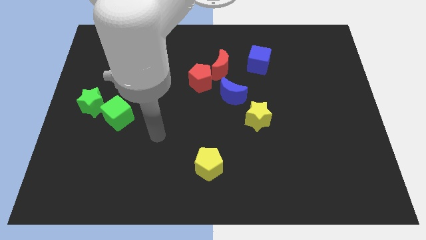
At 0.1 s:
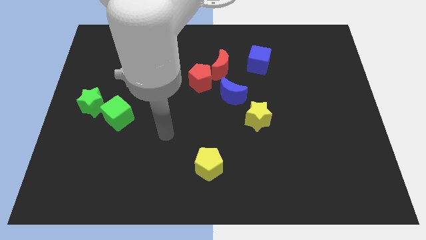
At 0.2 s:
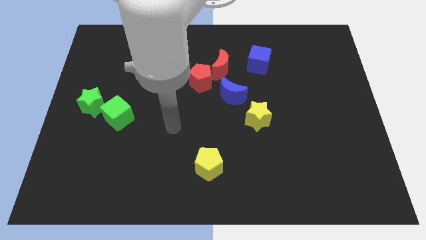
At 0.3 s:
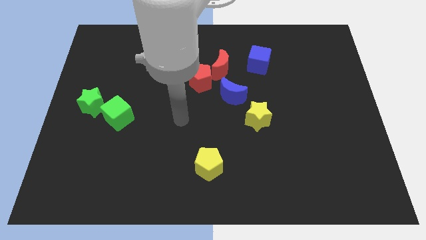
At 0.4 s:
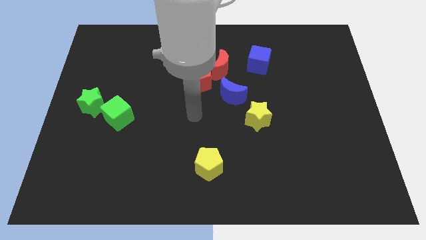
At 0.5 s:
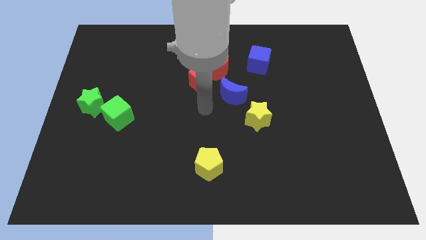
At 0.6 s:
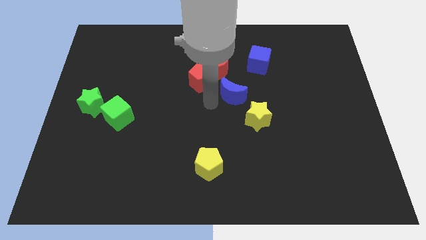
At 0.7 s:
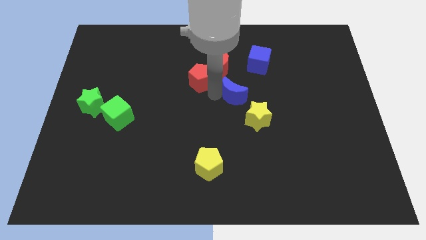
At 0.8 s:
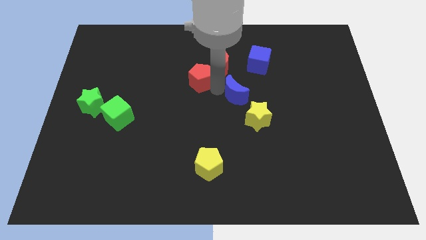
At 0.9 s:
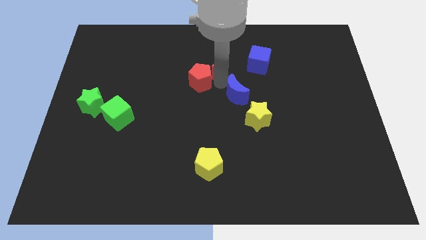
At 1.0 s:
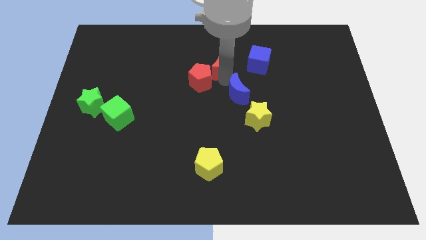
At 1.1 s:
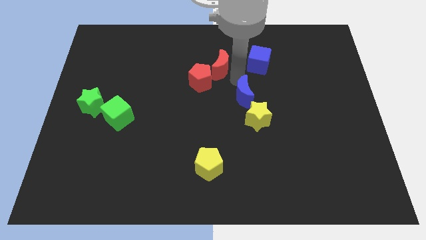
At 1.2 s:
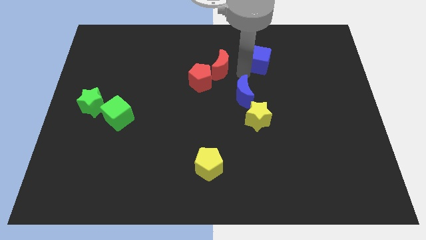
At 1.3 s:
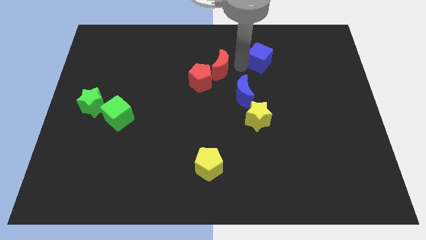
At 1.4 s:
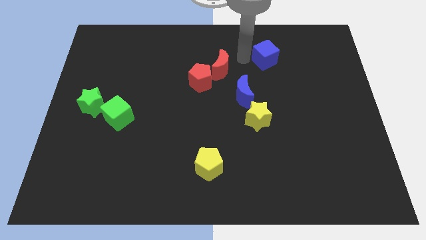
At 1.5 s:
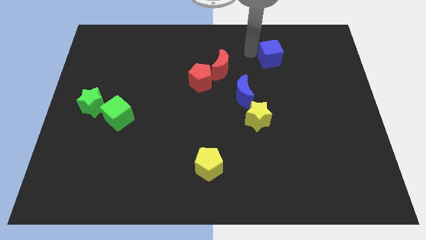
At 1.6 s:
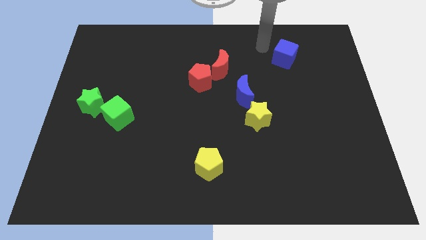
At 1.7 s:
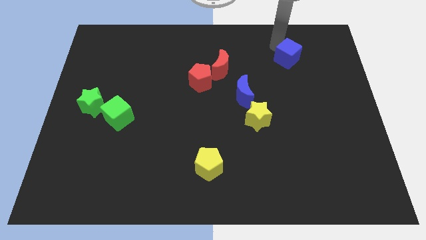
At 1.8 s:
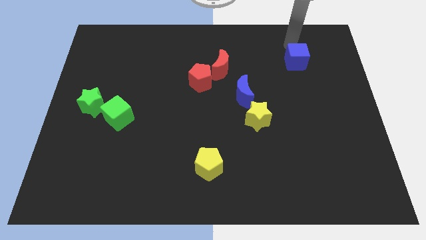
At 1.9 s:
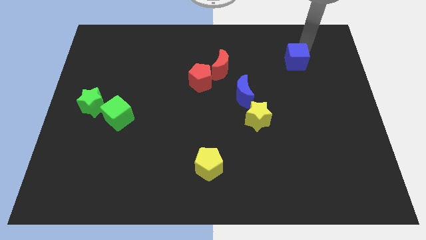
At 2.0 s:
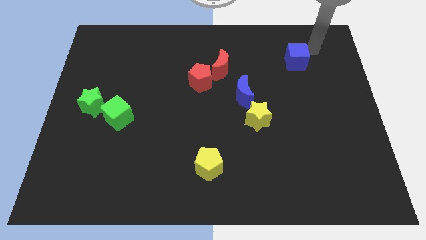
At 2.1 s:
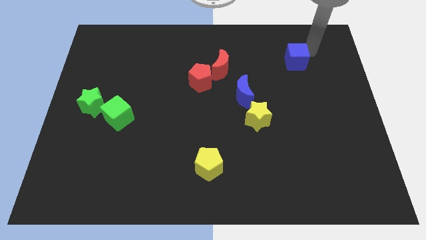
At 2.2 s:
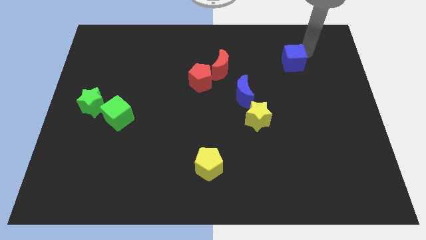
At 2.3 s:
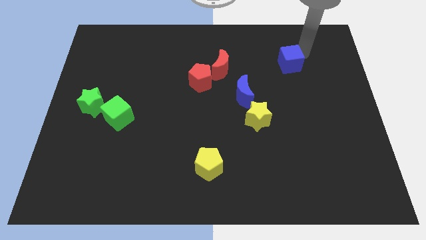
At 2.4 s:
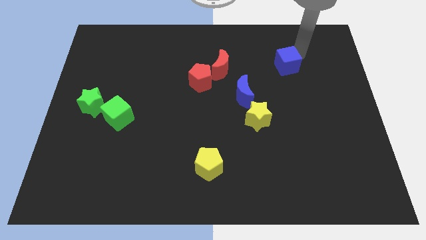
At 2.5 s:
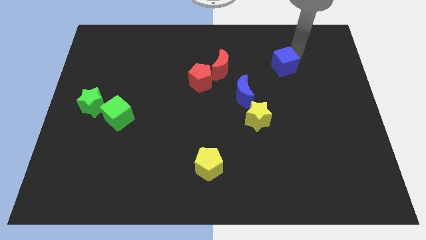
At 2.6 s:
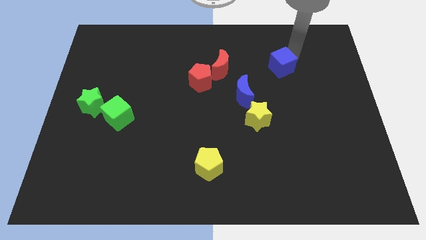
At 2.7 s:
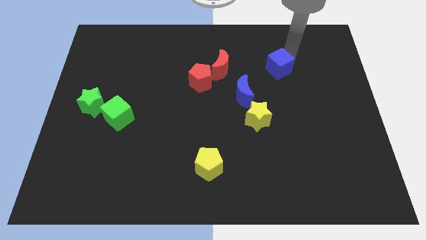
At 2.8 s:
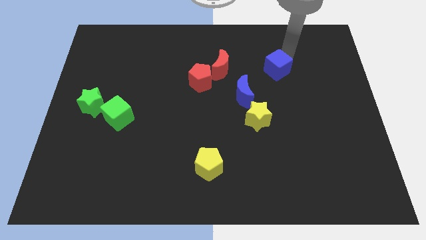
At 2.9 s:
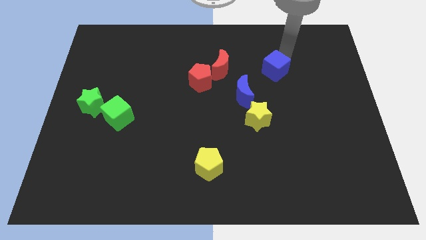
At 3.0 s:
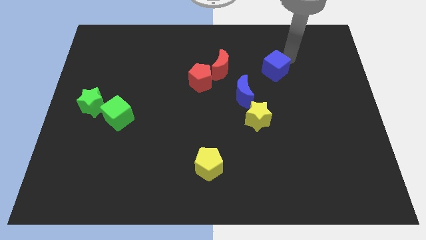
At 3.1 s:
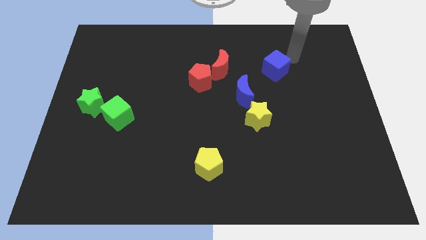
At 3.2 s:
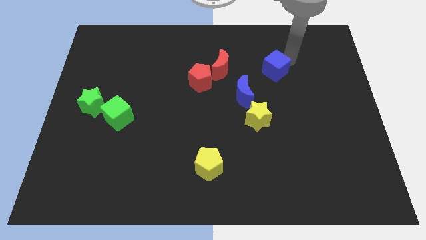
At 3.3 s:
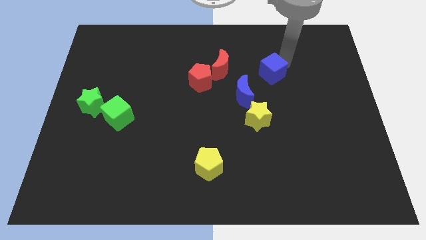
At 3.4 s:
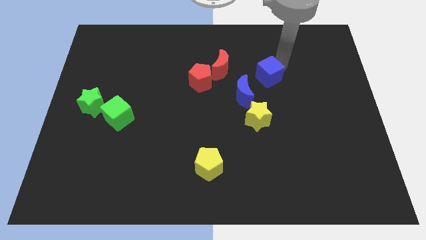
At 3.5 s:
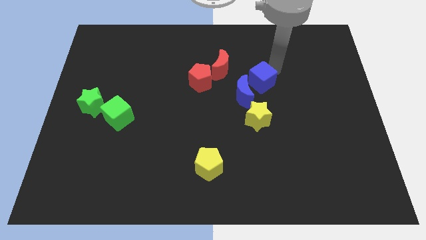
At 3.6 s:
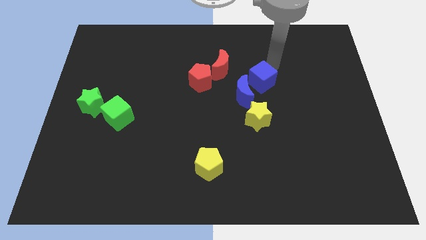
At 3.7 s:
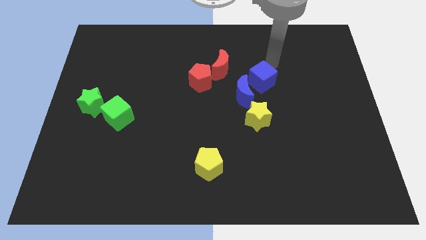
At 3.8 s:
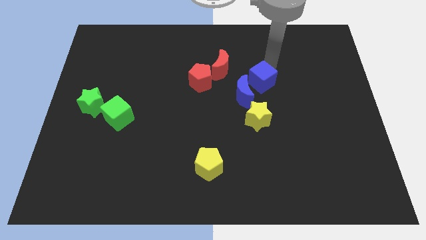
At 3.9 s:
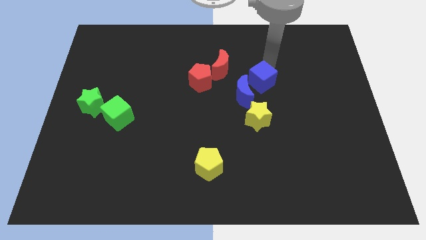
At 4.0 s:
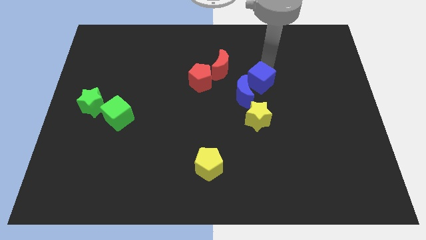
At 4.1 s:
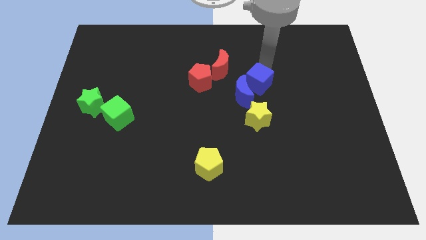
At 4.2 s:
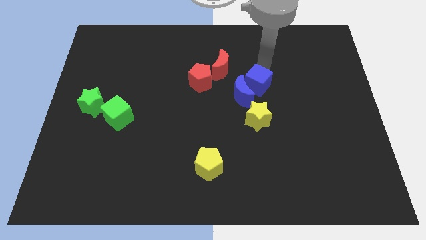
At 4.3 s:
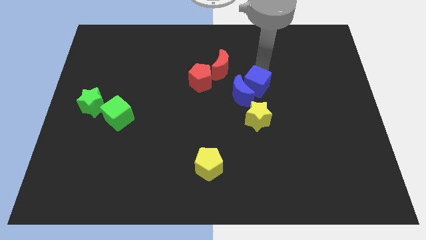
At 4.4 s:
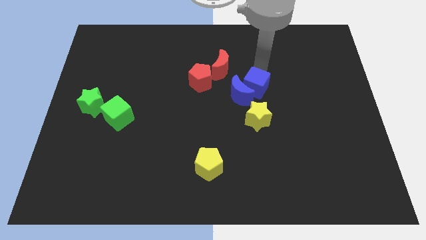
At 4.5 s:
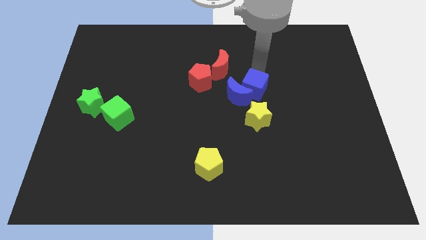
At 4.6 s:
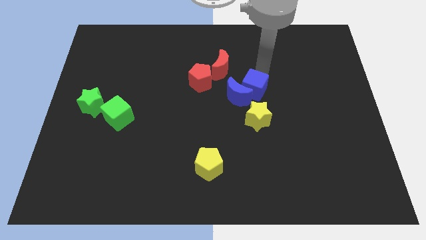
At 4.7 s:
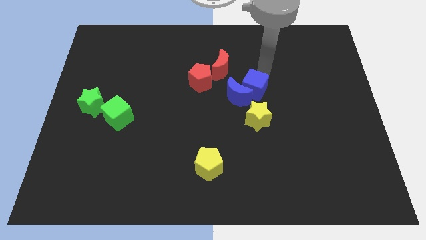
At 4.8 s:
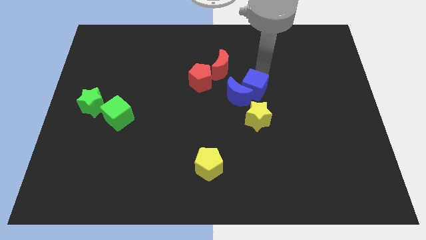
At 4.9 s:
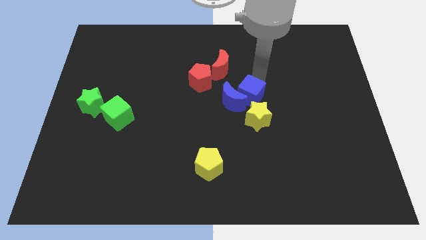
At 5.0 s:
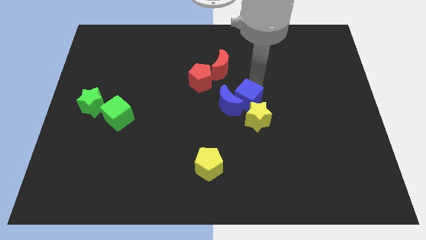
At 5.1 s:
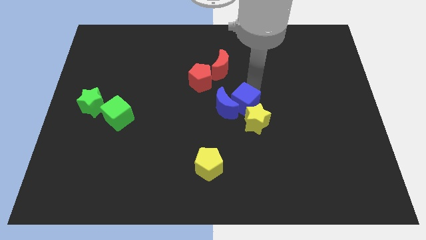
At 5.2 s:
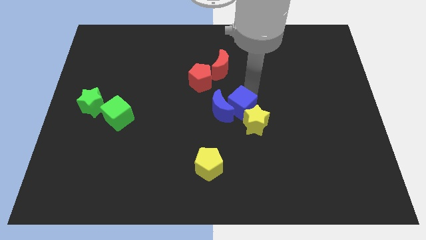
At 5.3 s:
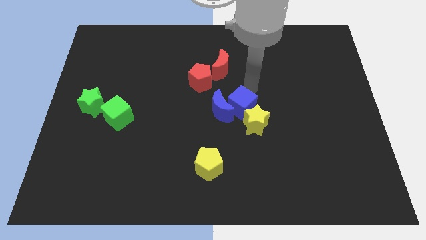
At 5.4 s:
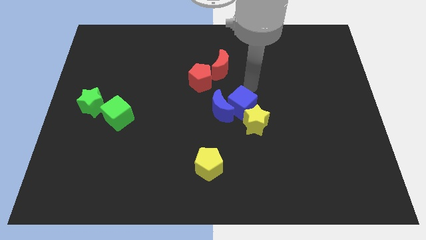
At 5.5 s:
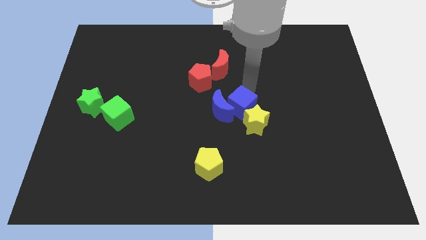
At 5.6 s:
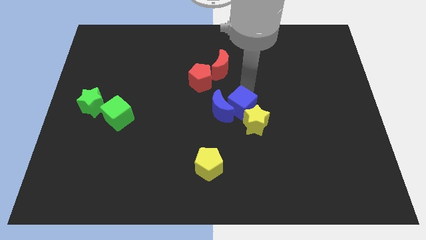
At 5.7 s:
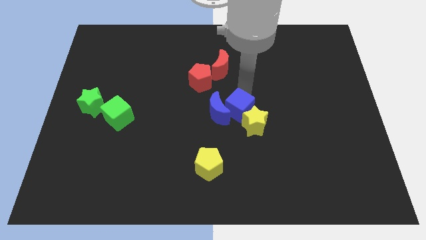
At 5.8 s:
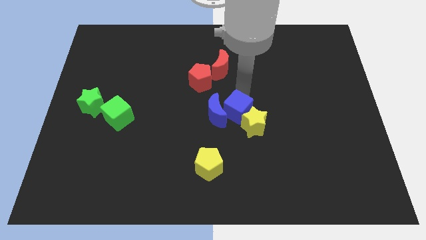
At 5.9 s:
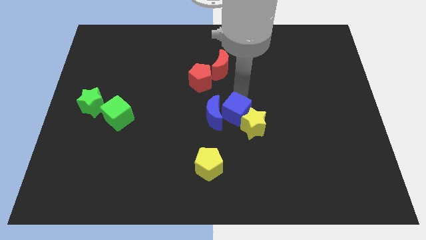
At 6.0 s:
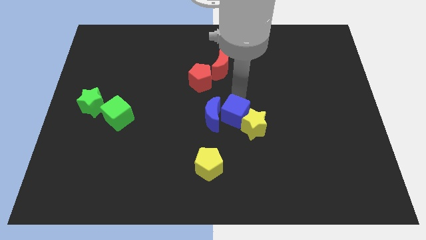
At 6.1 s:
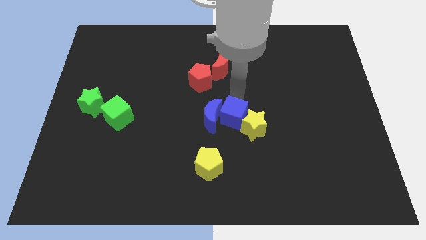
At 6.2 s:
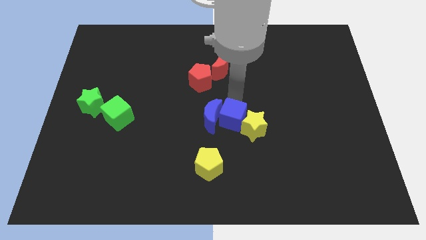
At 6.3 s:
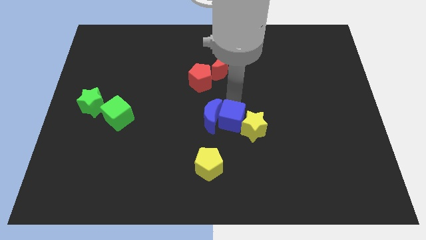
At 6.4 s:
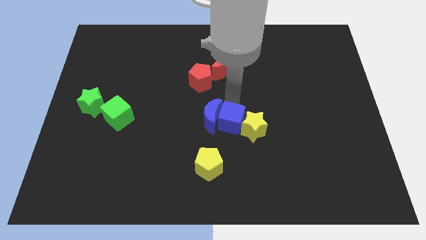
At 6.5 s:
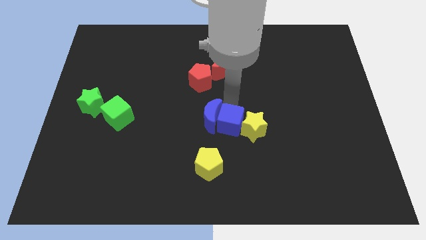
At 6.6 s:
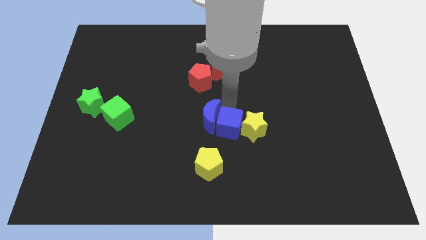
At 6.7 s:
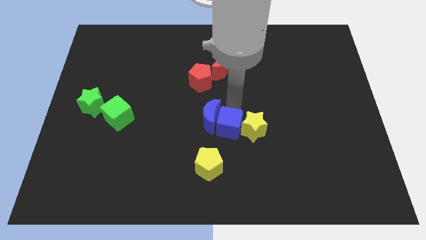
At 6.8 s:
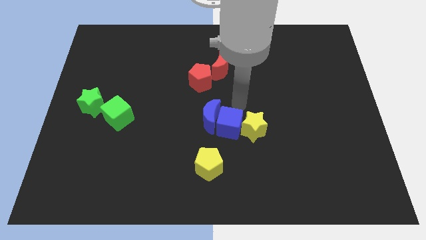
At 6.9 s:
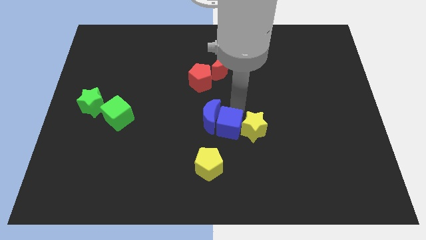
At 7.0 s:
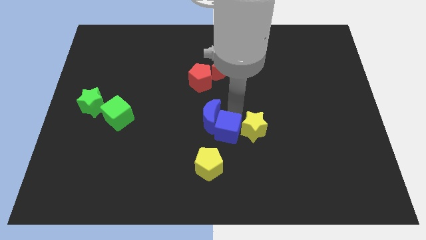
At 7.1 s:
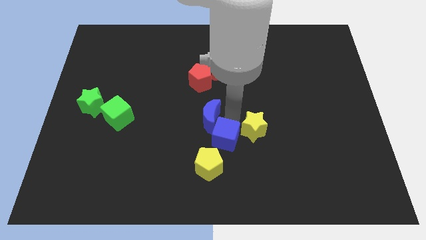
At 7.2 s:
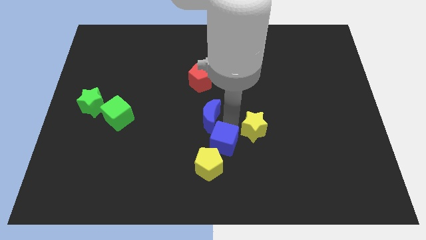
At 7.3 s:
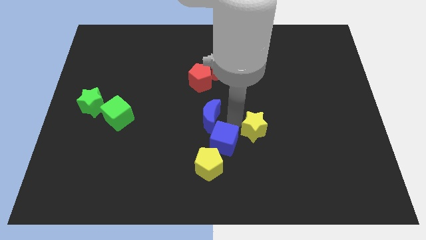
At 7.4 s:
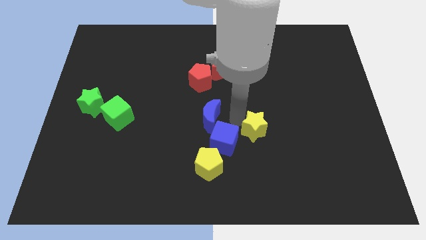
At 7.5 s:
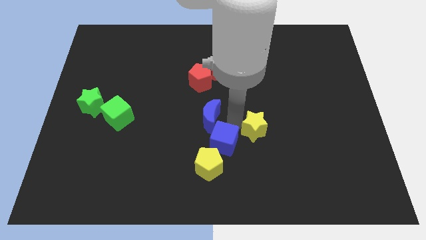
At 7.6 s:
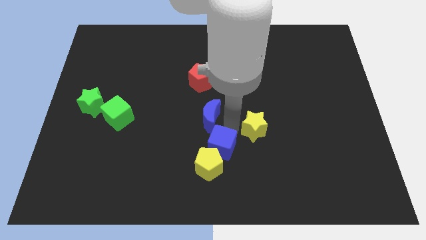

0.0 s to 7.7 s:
move the blue cube next to the yellow pentagon
